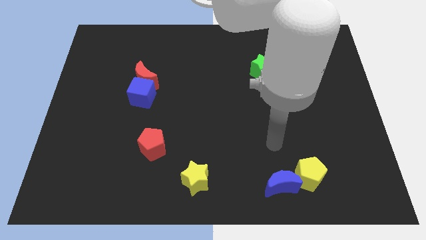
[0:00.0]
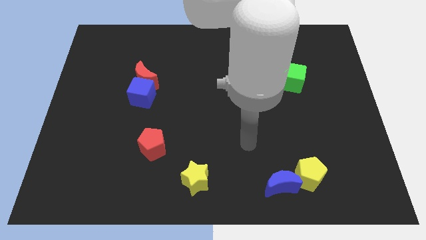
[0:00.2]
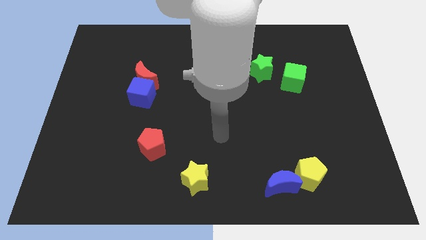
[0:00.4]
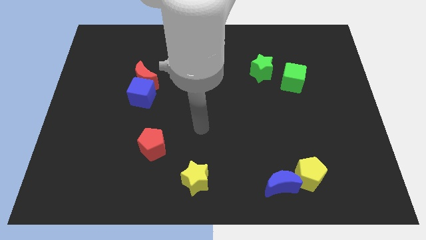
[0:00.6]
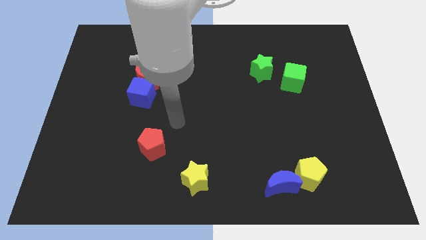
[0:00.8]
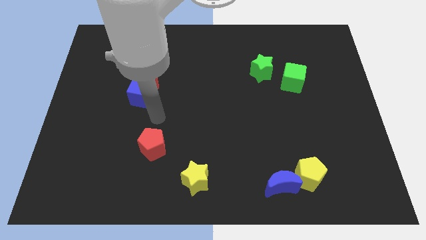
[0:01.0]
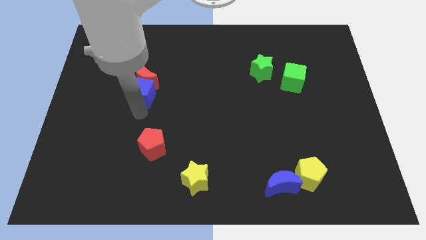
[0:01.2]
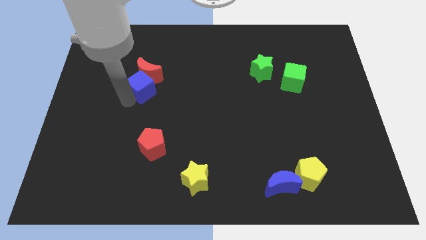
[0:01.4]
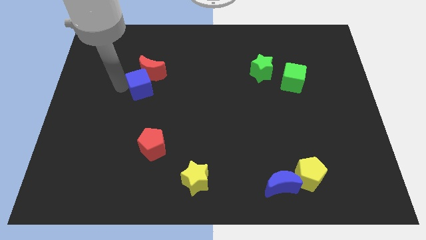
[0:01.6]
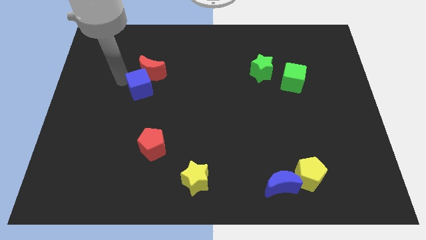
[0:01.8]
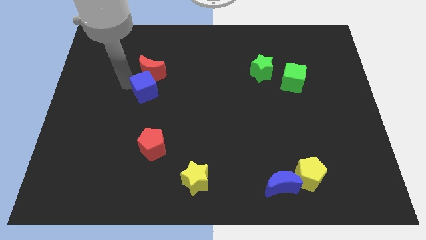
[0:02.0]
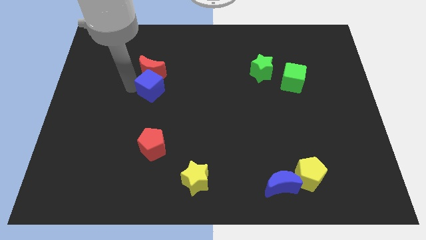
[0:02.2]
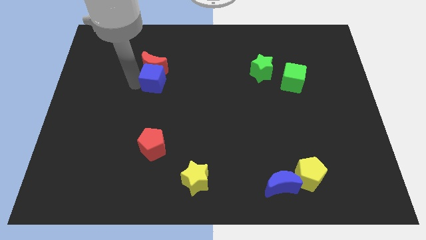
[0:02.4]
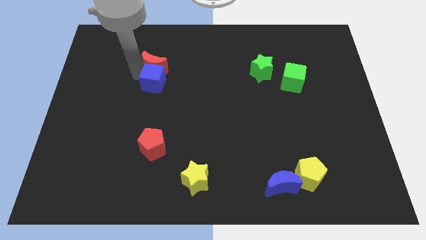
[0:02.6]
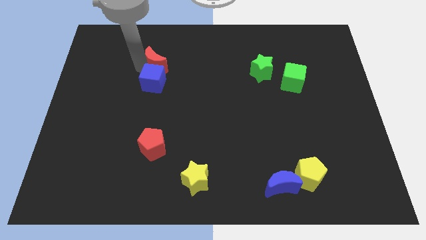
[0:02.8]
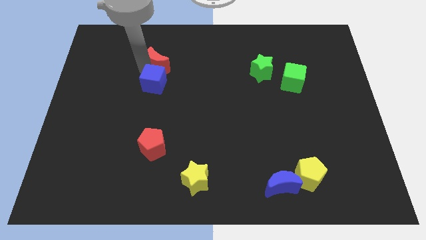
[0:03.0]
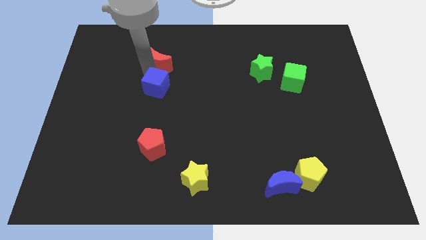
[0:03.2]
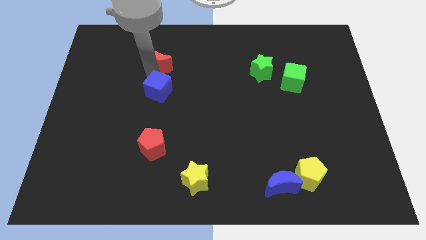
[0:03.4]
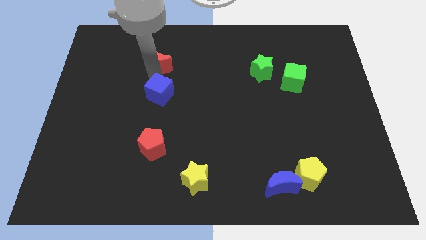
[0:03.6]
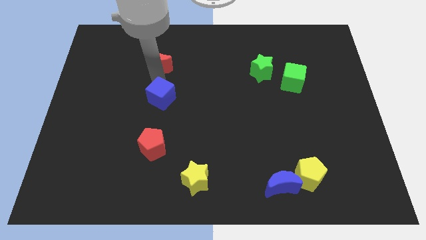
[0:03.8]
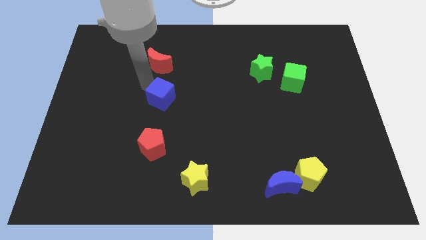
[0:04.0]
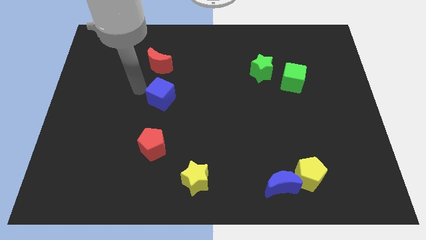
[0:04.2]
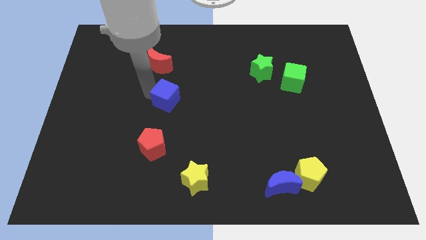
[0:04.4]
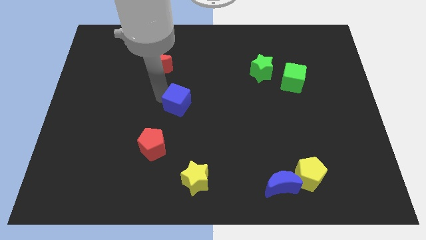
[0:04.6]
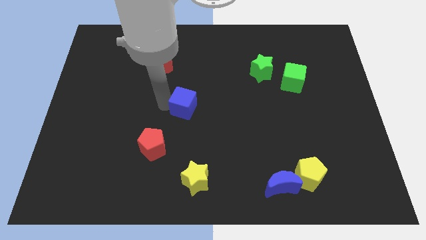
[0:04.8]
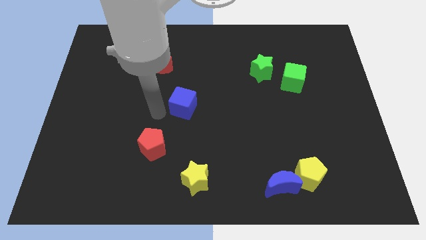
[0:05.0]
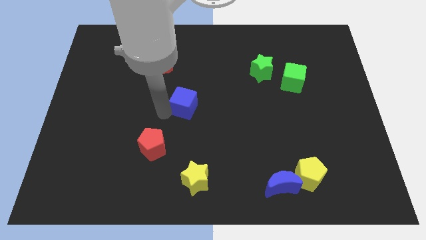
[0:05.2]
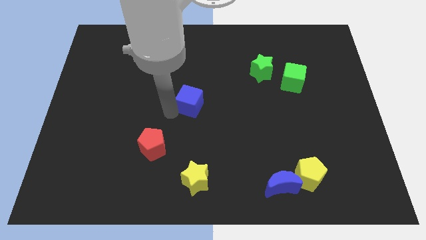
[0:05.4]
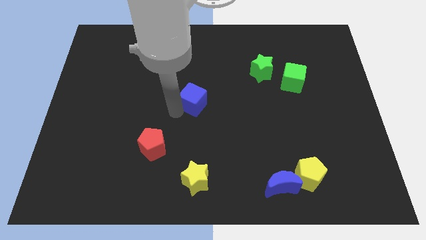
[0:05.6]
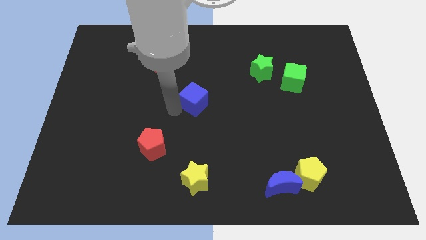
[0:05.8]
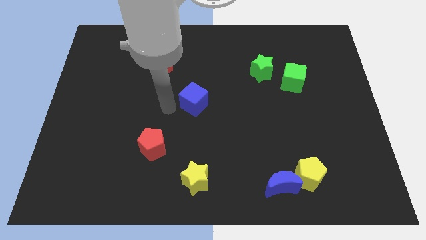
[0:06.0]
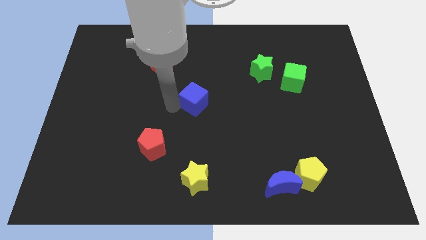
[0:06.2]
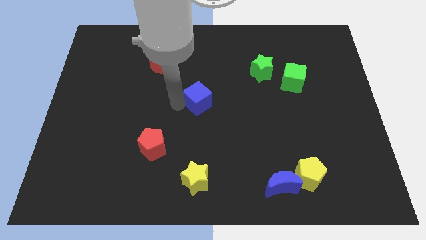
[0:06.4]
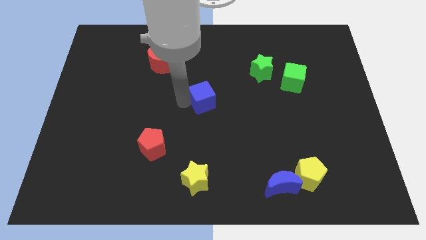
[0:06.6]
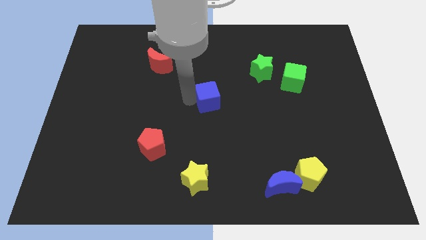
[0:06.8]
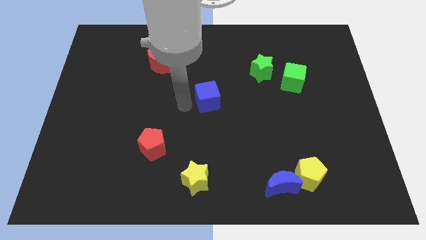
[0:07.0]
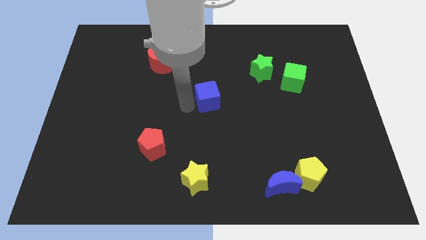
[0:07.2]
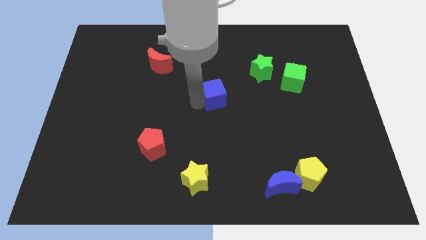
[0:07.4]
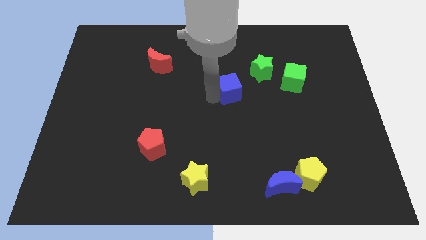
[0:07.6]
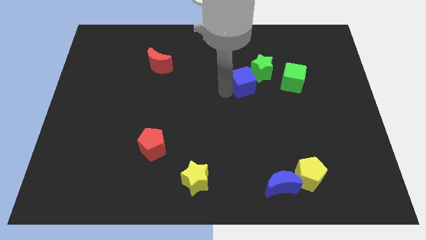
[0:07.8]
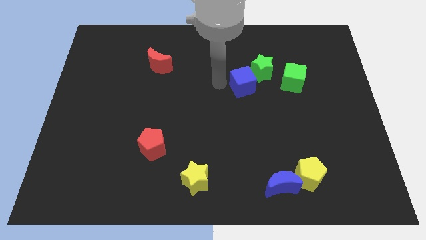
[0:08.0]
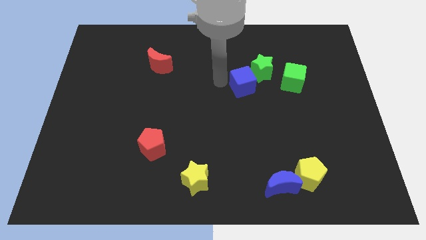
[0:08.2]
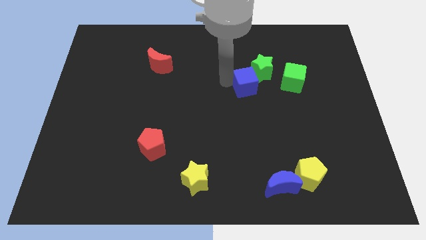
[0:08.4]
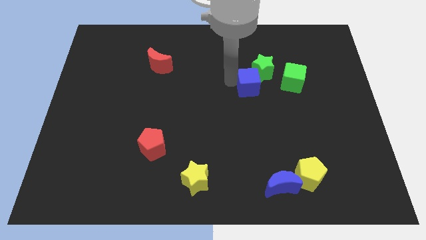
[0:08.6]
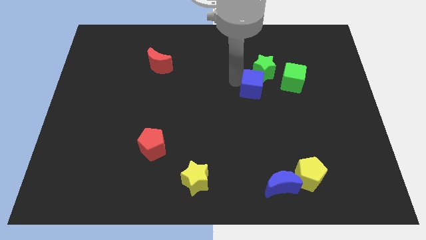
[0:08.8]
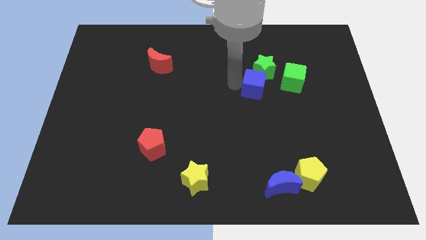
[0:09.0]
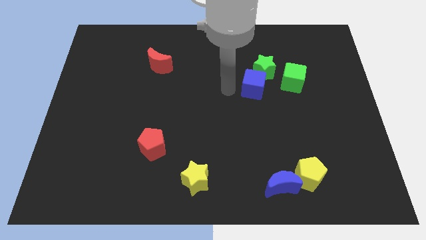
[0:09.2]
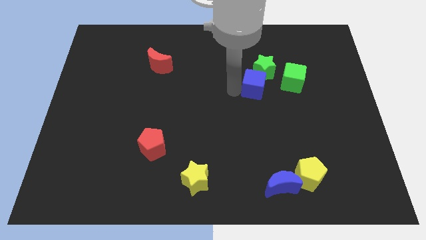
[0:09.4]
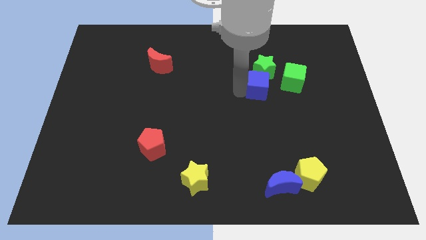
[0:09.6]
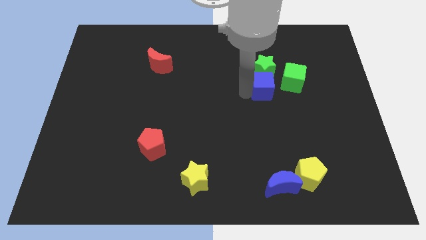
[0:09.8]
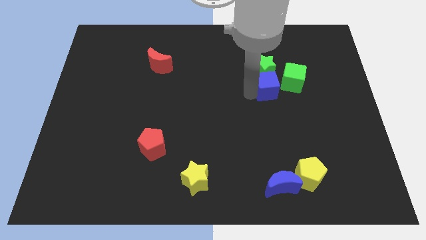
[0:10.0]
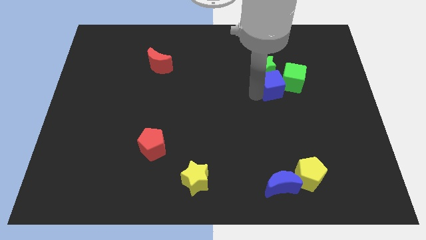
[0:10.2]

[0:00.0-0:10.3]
move the blue cube towards the green cube

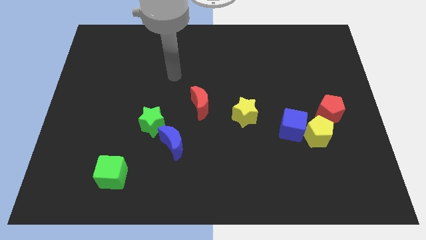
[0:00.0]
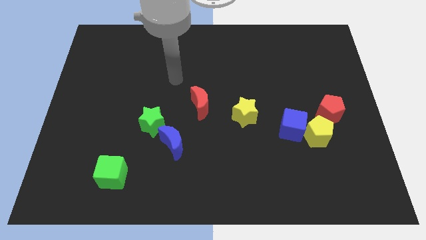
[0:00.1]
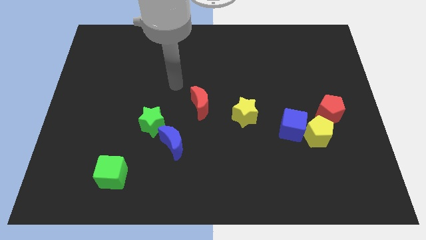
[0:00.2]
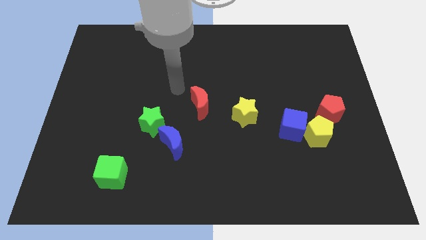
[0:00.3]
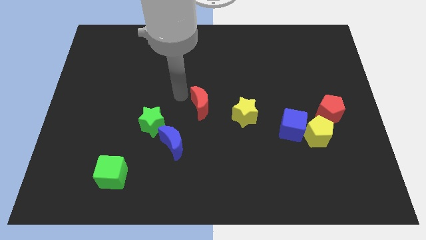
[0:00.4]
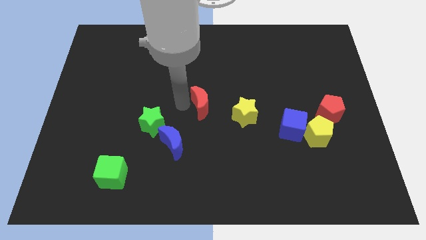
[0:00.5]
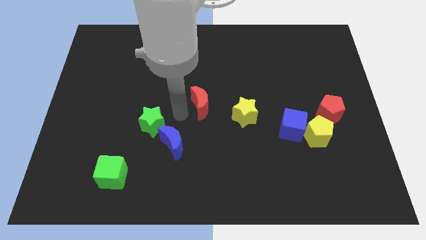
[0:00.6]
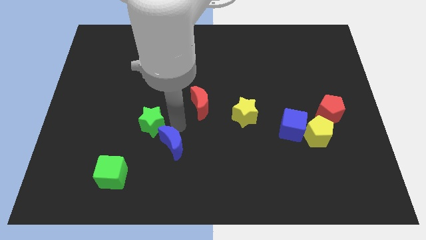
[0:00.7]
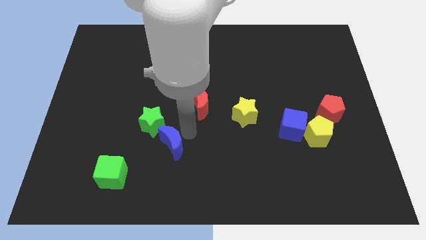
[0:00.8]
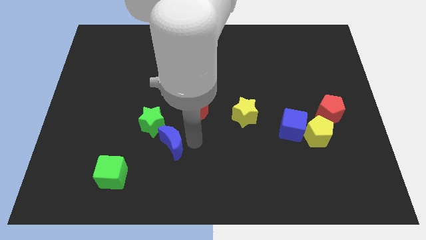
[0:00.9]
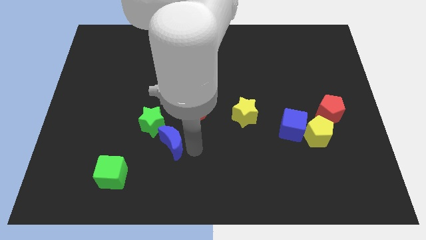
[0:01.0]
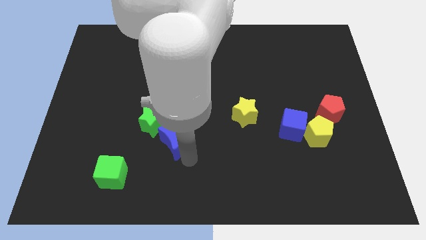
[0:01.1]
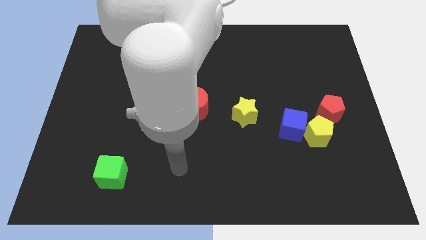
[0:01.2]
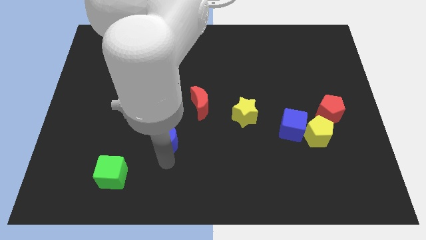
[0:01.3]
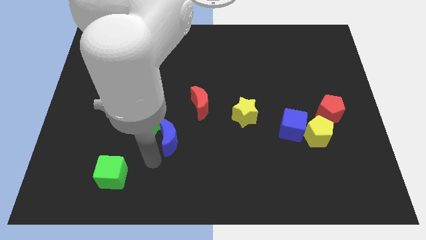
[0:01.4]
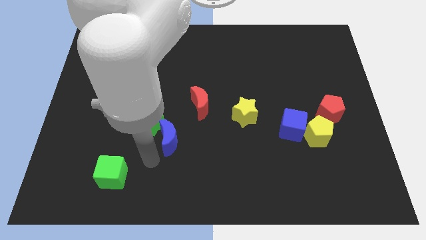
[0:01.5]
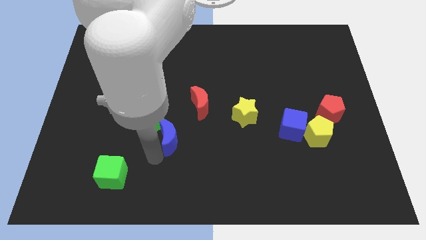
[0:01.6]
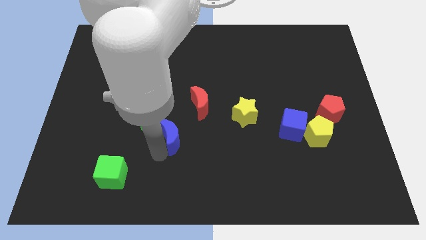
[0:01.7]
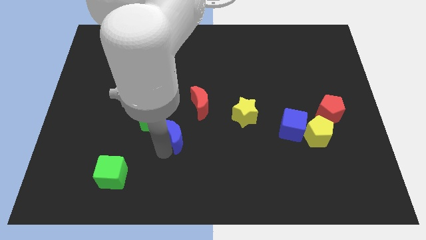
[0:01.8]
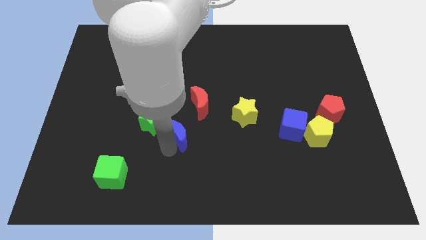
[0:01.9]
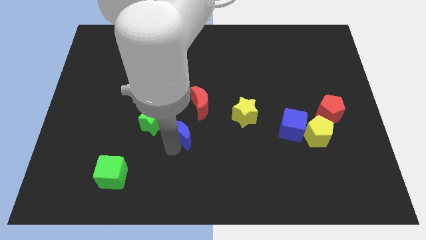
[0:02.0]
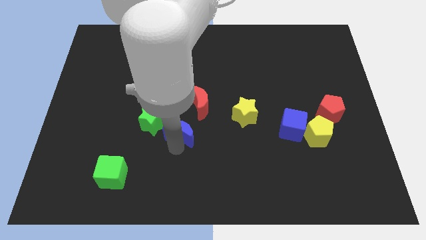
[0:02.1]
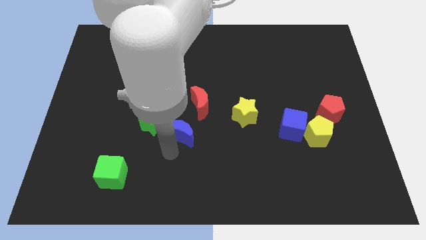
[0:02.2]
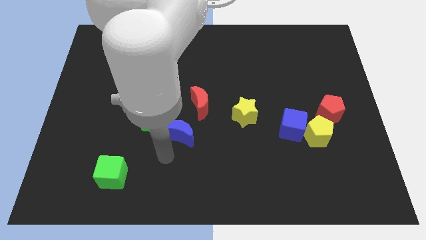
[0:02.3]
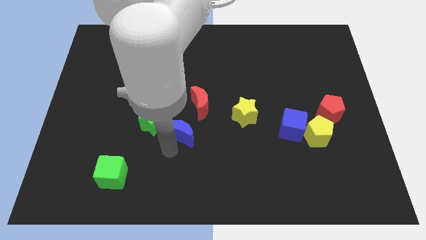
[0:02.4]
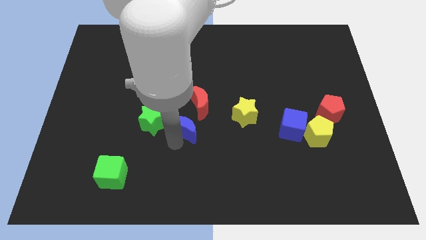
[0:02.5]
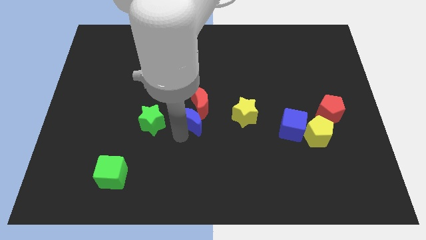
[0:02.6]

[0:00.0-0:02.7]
put the blue moon to the red moon
